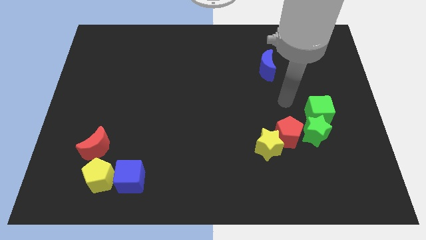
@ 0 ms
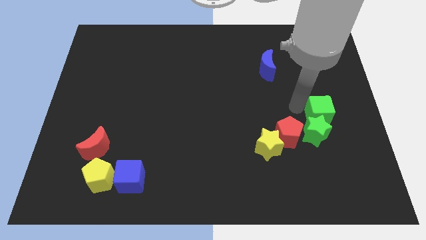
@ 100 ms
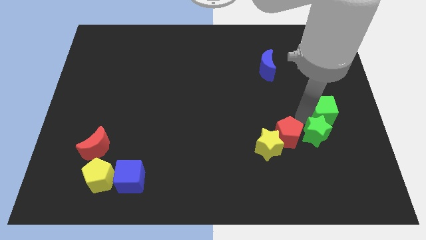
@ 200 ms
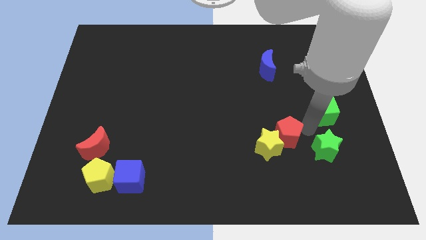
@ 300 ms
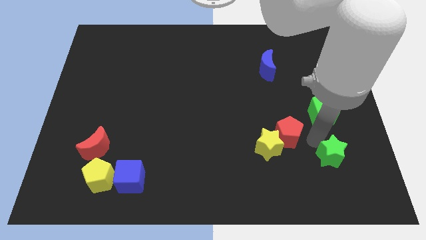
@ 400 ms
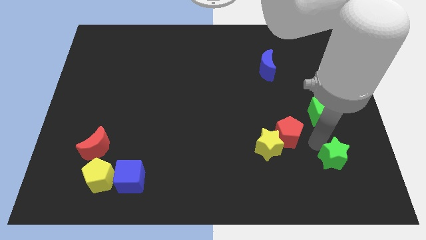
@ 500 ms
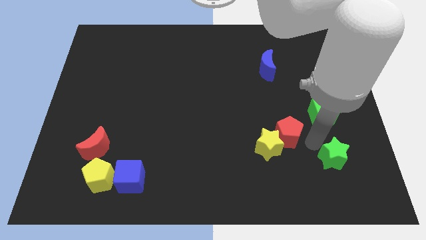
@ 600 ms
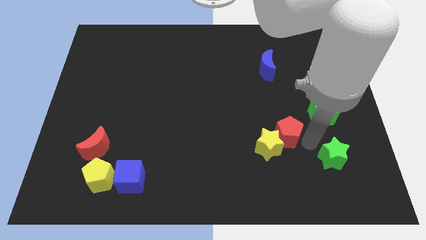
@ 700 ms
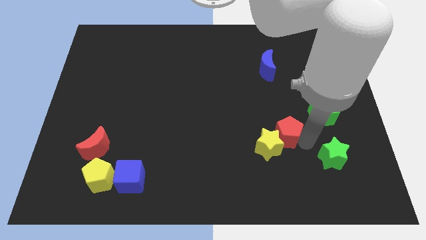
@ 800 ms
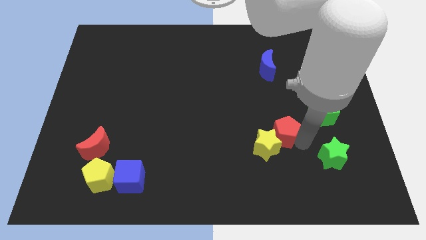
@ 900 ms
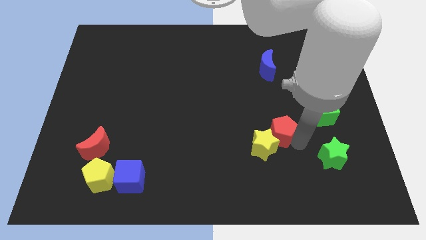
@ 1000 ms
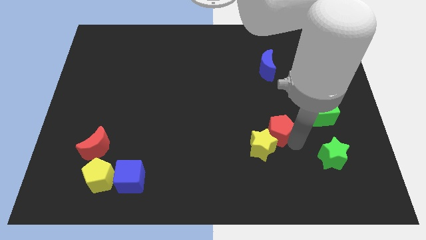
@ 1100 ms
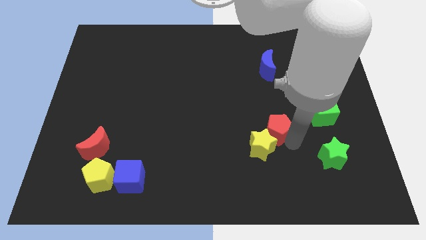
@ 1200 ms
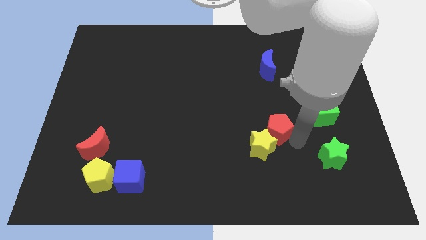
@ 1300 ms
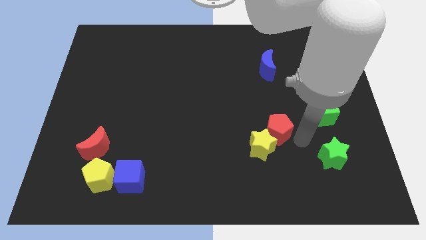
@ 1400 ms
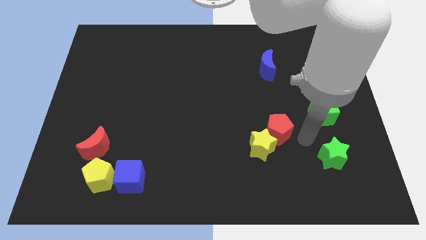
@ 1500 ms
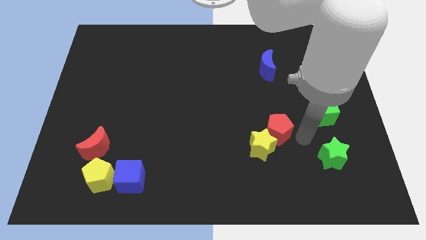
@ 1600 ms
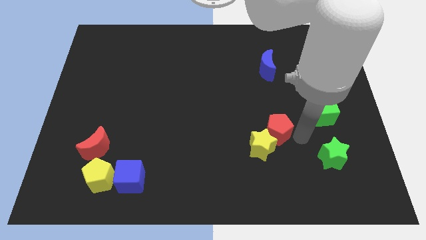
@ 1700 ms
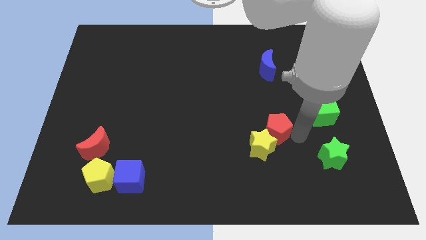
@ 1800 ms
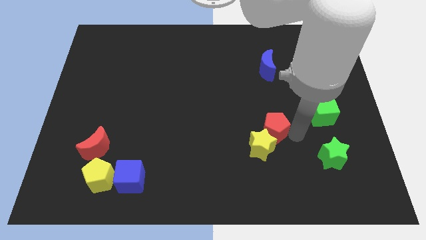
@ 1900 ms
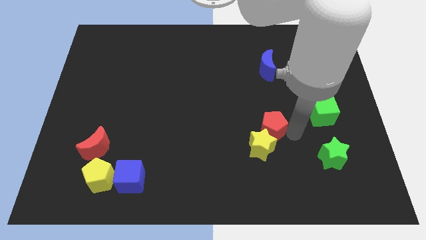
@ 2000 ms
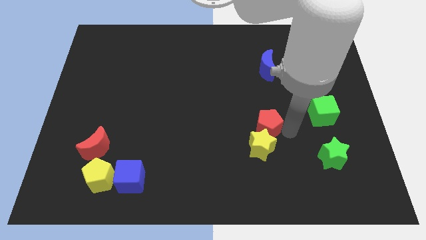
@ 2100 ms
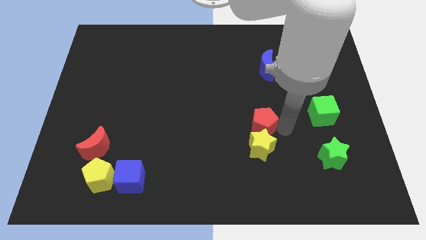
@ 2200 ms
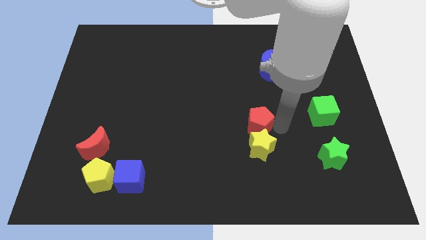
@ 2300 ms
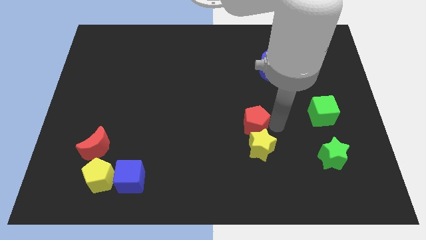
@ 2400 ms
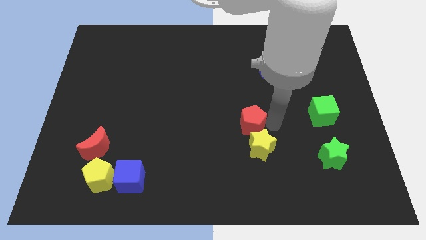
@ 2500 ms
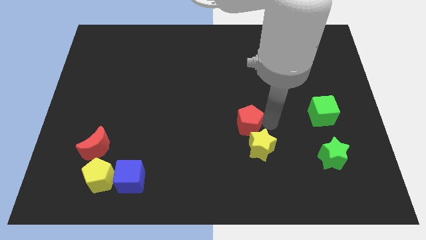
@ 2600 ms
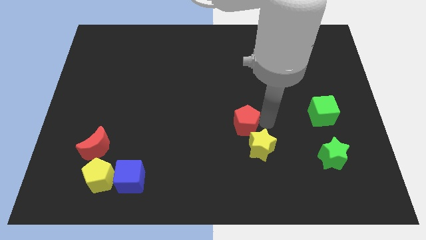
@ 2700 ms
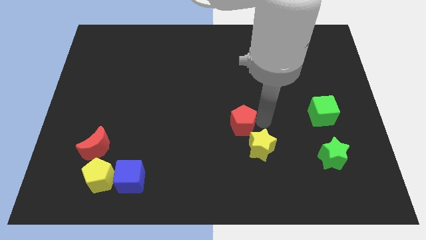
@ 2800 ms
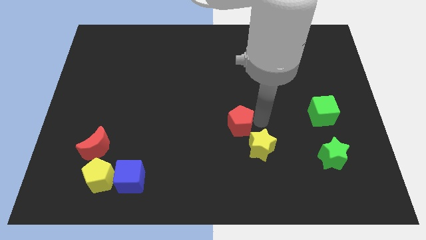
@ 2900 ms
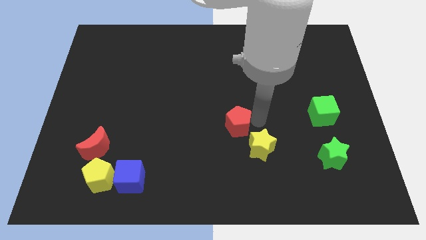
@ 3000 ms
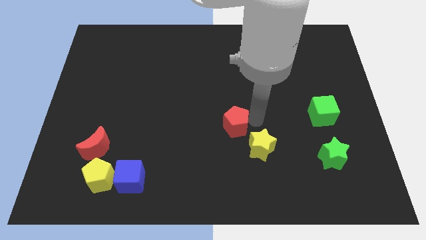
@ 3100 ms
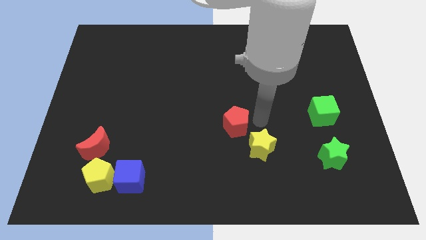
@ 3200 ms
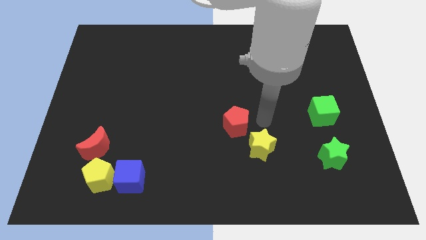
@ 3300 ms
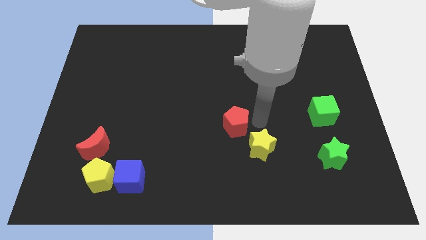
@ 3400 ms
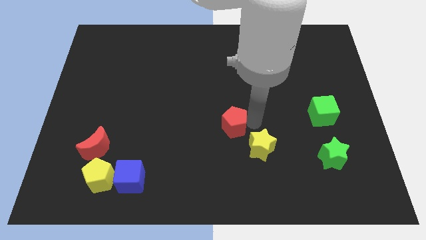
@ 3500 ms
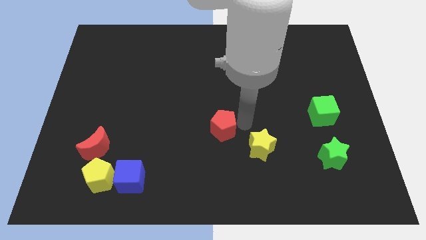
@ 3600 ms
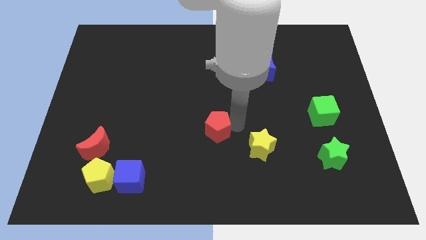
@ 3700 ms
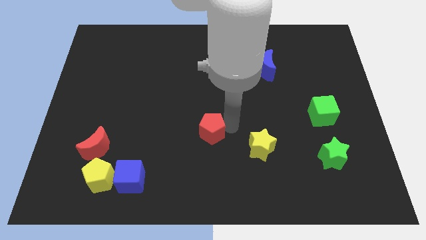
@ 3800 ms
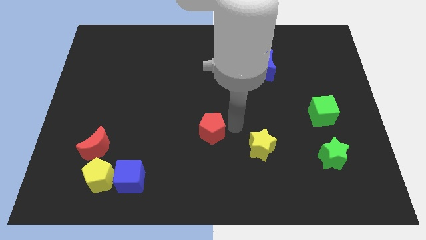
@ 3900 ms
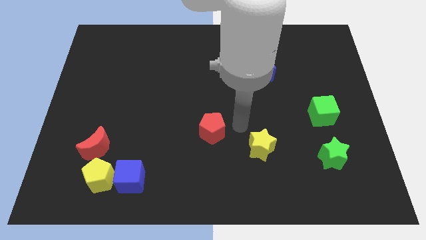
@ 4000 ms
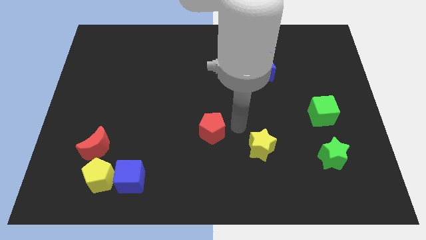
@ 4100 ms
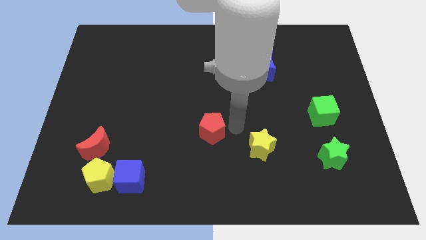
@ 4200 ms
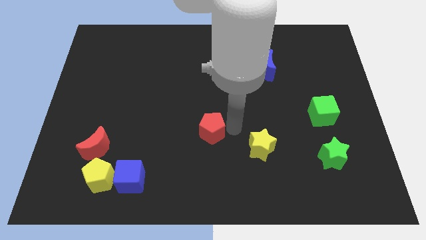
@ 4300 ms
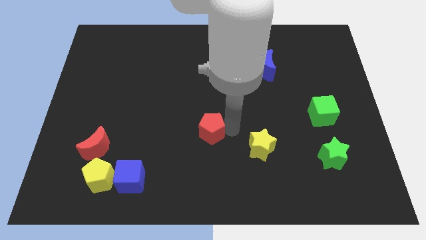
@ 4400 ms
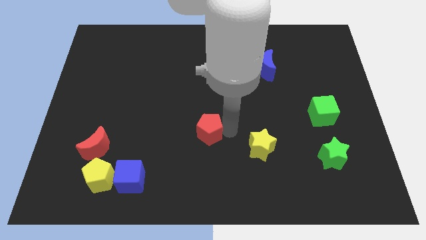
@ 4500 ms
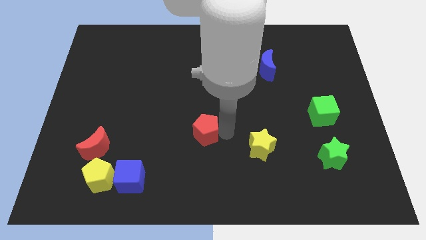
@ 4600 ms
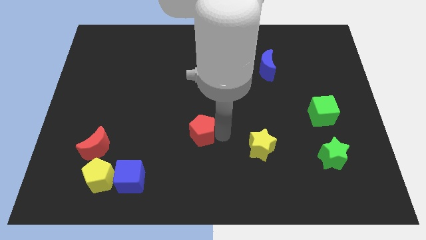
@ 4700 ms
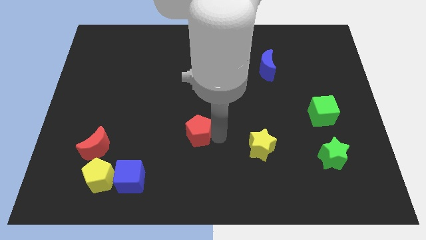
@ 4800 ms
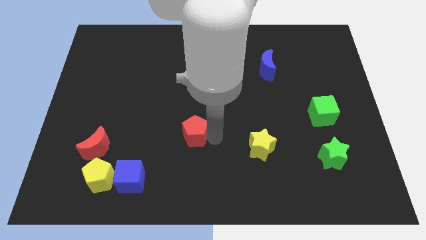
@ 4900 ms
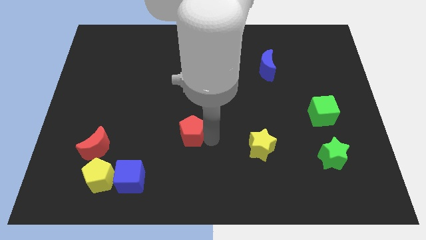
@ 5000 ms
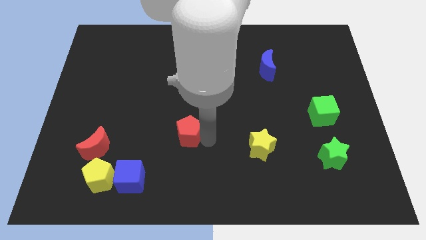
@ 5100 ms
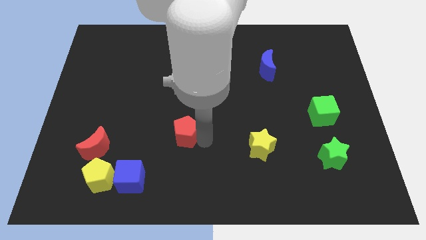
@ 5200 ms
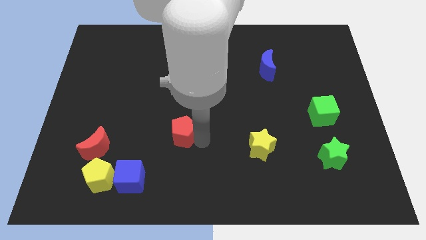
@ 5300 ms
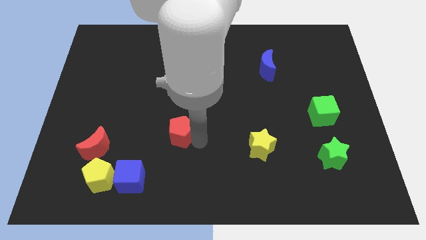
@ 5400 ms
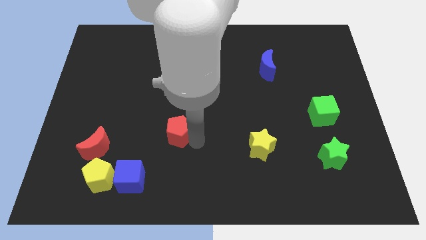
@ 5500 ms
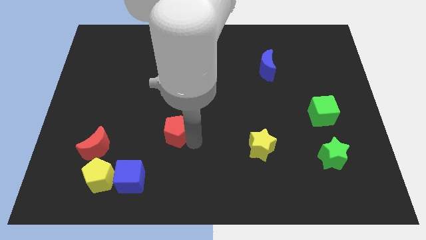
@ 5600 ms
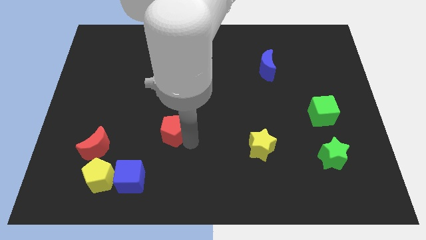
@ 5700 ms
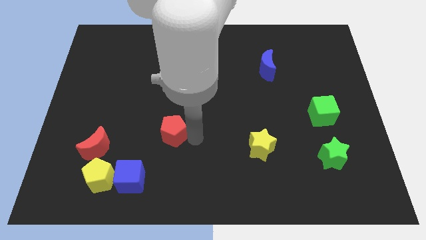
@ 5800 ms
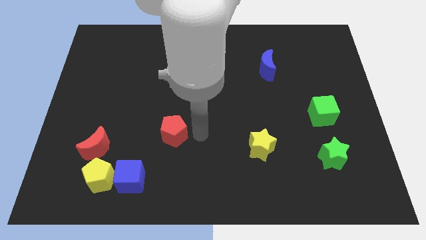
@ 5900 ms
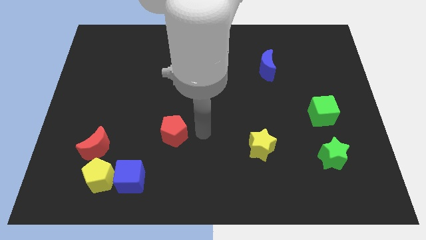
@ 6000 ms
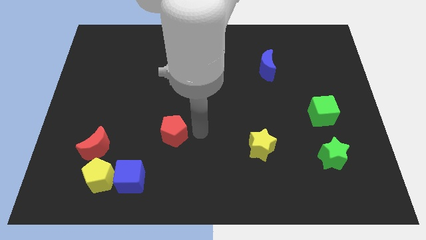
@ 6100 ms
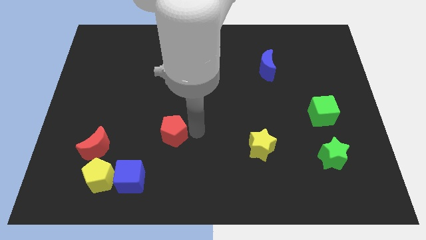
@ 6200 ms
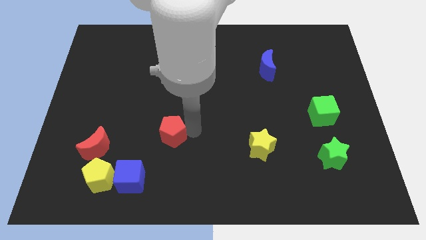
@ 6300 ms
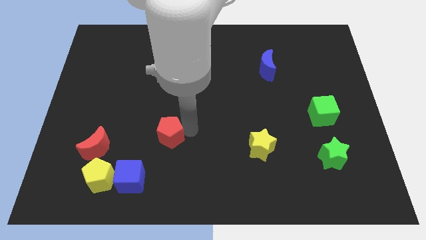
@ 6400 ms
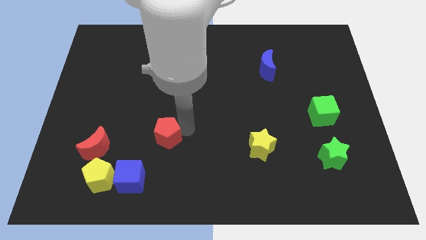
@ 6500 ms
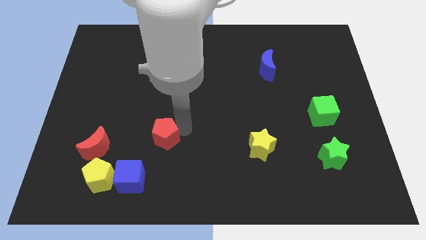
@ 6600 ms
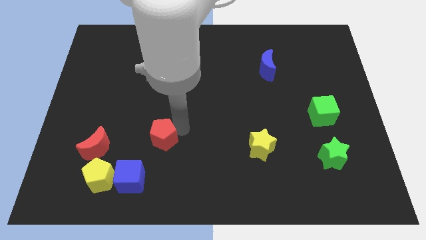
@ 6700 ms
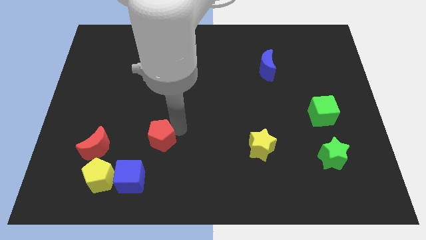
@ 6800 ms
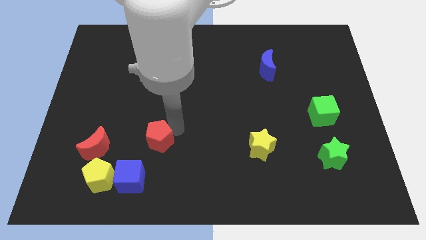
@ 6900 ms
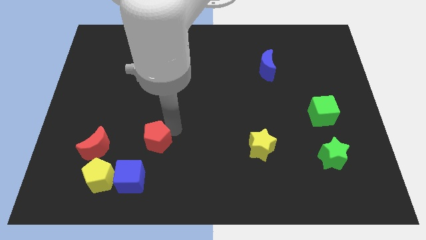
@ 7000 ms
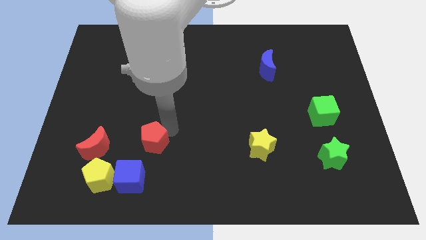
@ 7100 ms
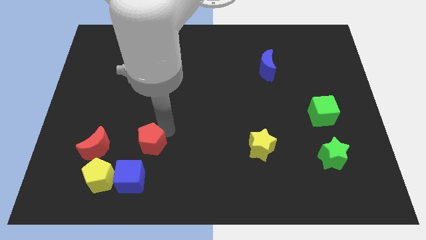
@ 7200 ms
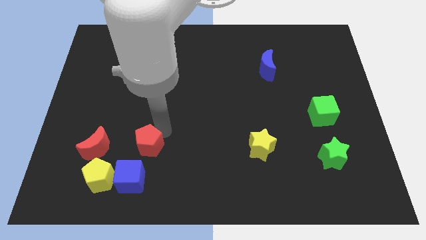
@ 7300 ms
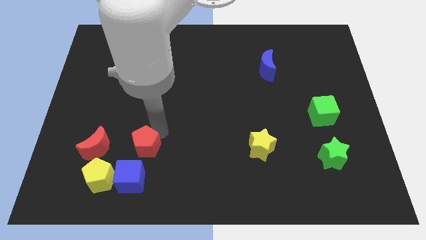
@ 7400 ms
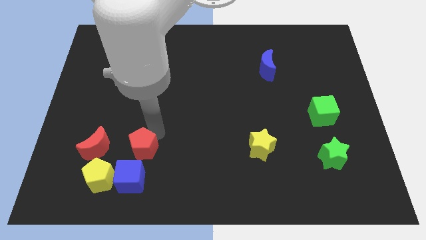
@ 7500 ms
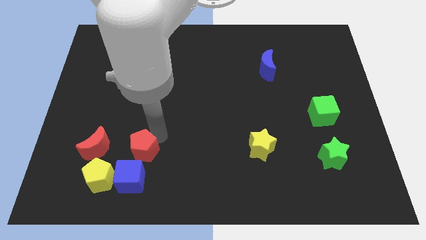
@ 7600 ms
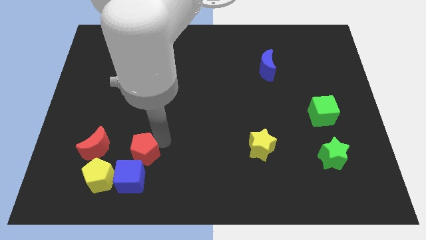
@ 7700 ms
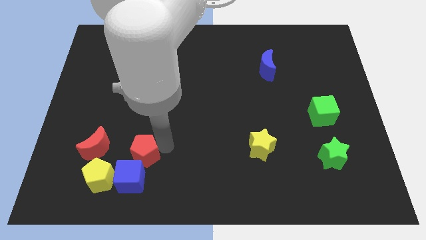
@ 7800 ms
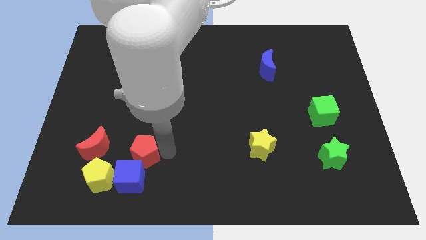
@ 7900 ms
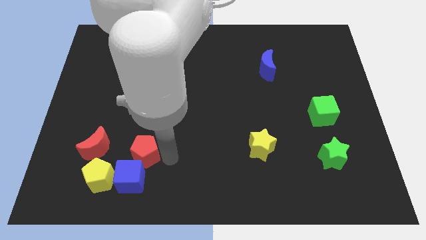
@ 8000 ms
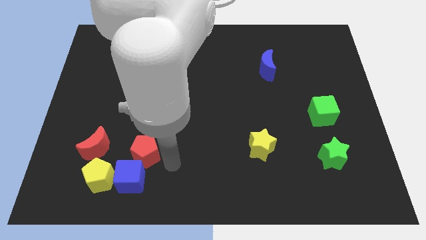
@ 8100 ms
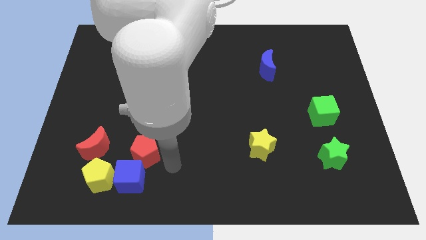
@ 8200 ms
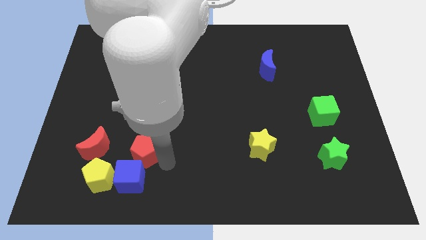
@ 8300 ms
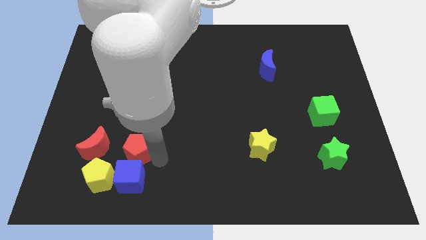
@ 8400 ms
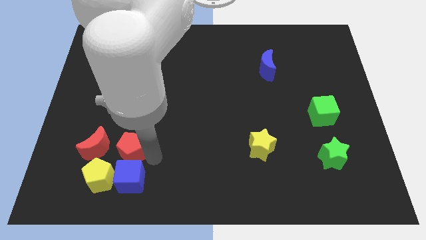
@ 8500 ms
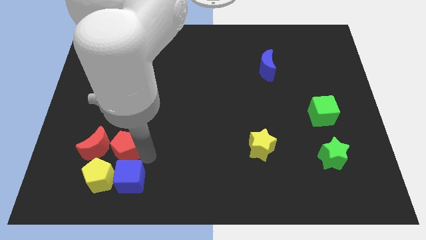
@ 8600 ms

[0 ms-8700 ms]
slide the red pentagon close to the red moon
